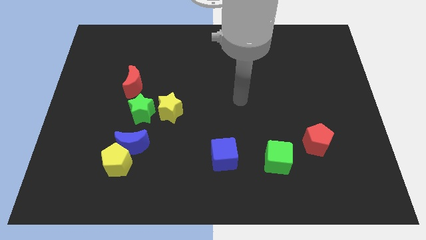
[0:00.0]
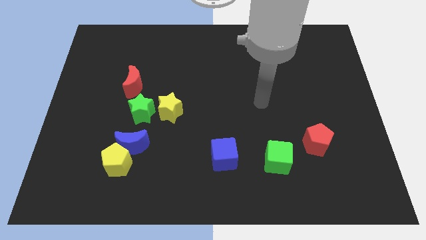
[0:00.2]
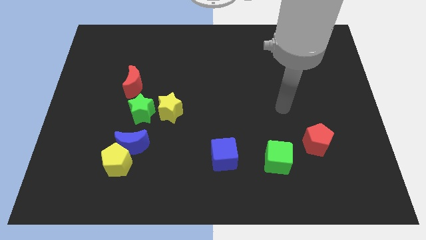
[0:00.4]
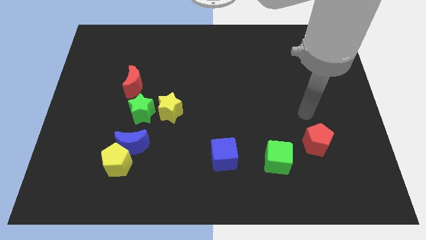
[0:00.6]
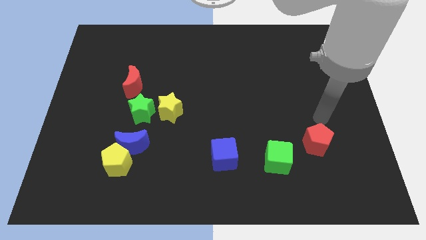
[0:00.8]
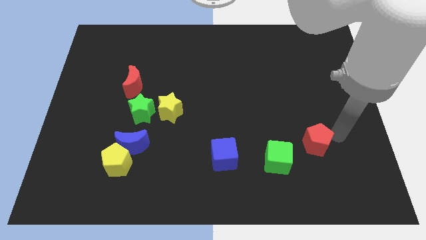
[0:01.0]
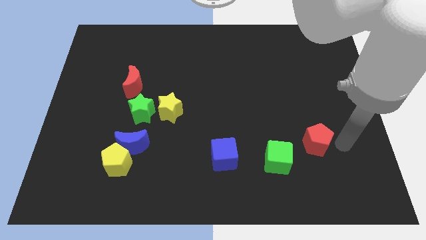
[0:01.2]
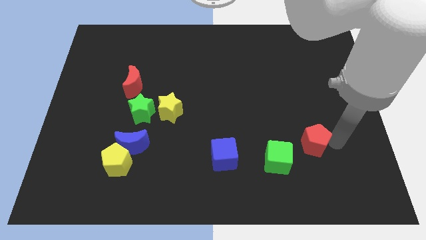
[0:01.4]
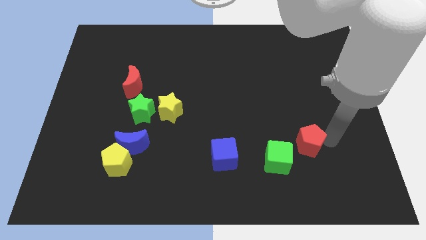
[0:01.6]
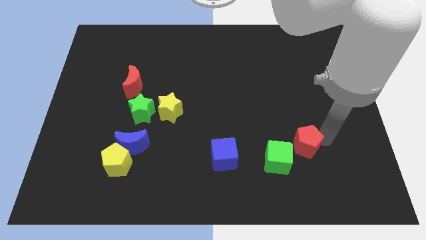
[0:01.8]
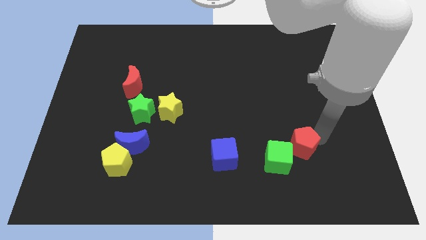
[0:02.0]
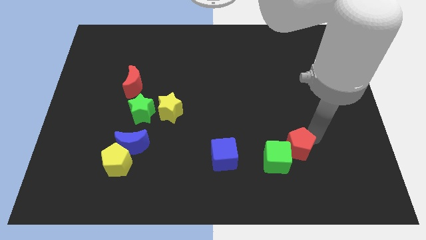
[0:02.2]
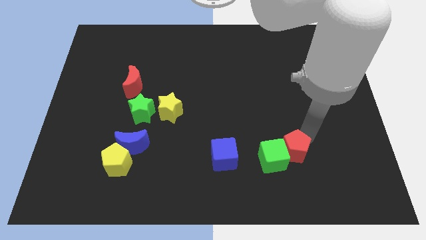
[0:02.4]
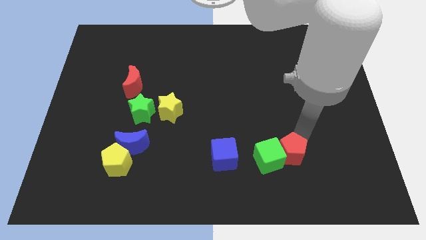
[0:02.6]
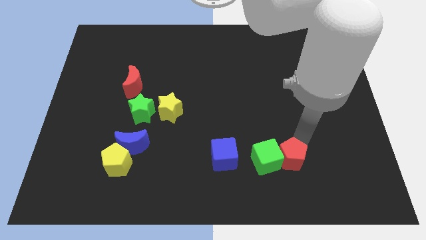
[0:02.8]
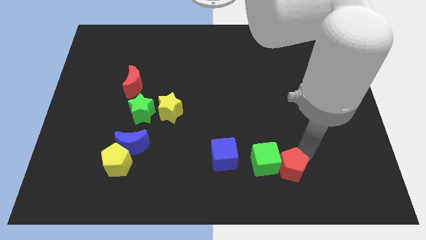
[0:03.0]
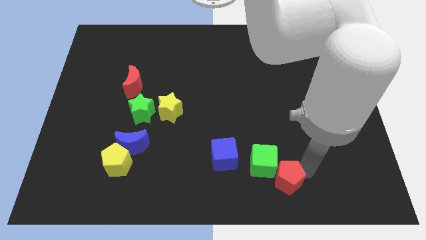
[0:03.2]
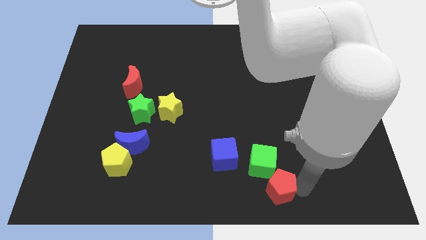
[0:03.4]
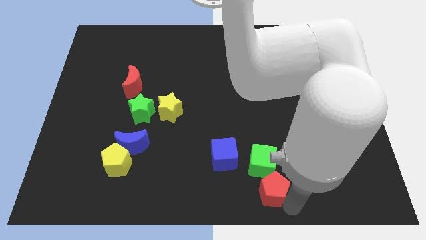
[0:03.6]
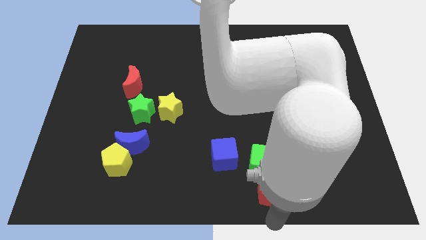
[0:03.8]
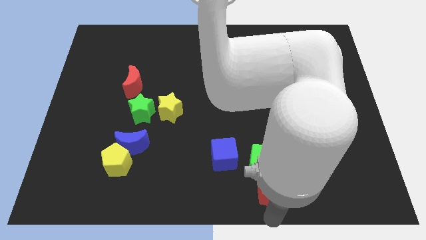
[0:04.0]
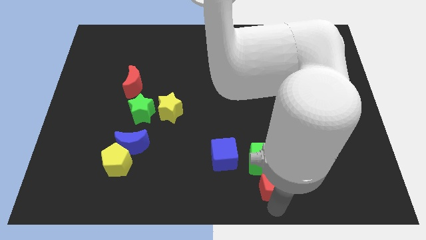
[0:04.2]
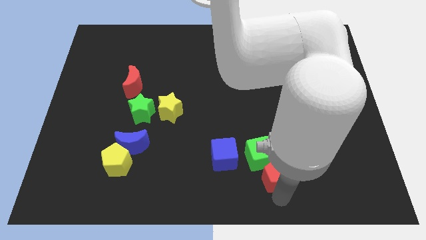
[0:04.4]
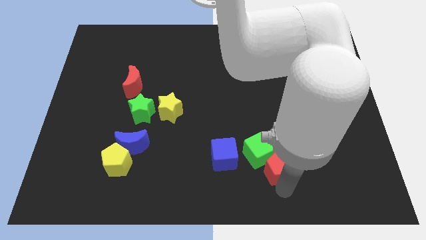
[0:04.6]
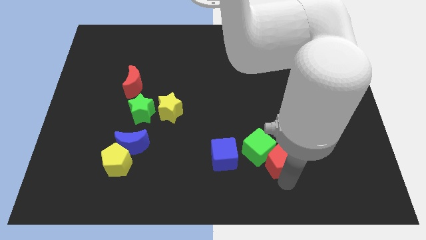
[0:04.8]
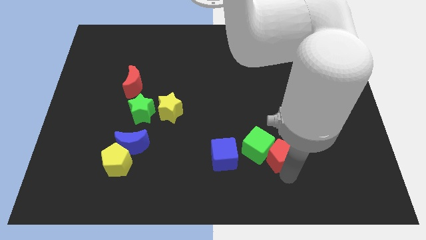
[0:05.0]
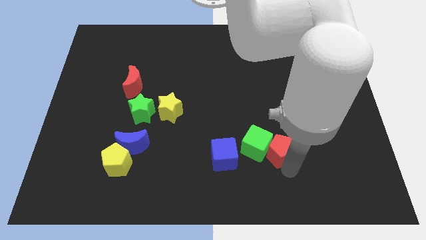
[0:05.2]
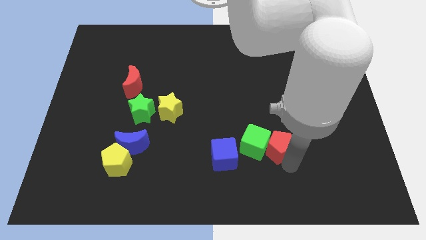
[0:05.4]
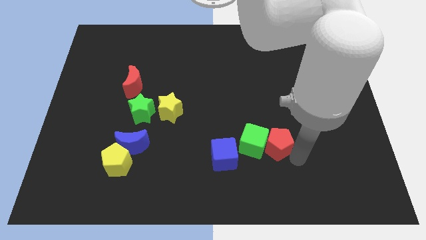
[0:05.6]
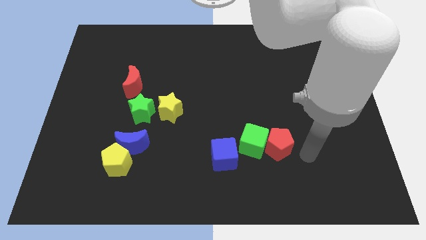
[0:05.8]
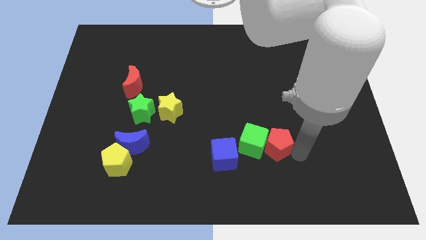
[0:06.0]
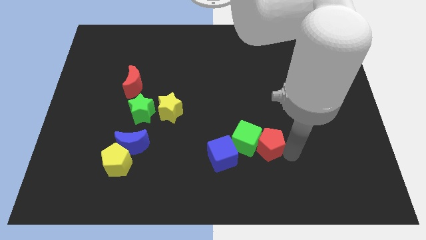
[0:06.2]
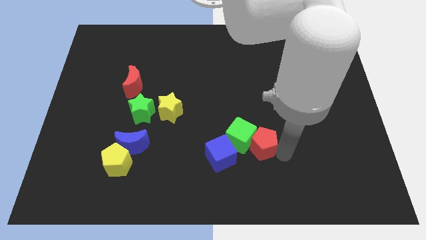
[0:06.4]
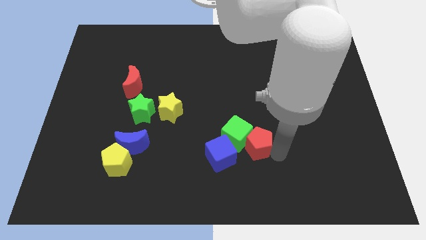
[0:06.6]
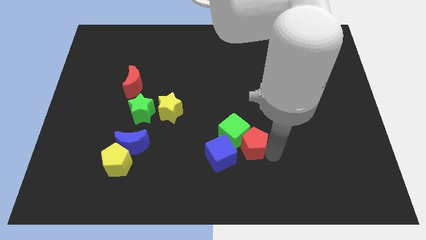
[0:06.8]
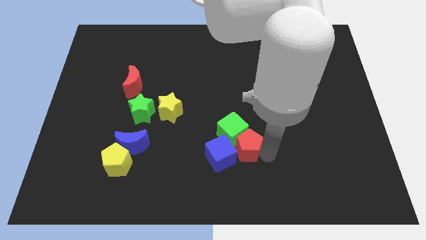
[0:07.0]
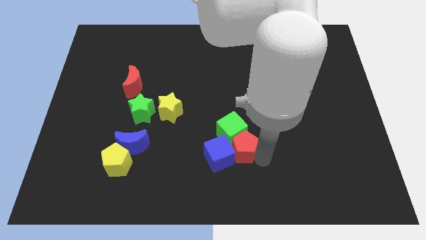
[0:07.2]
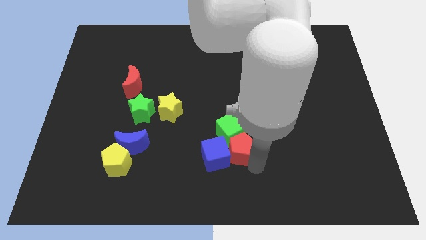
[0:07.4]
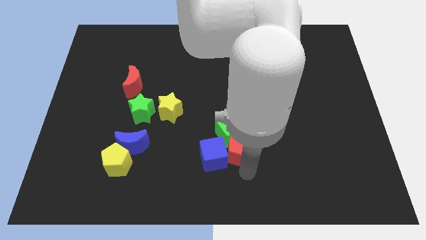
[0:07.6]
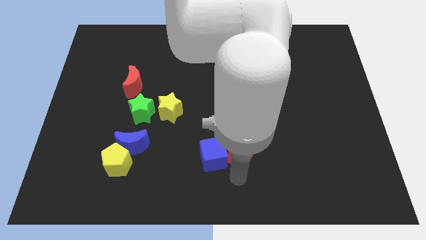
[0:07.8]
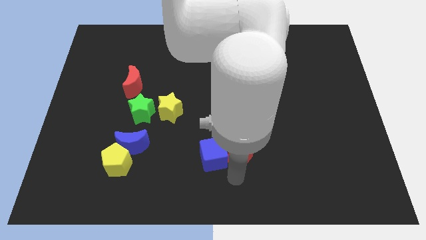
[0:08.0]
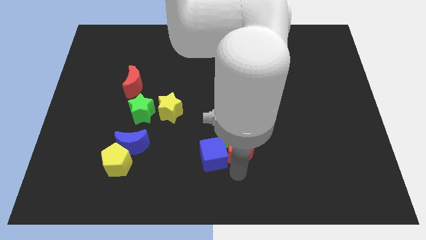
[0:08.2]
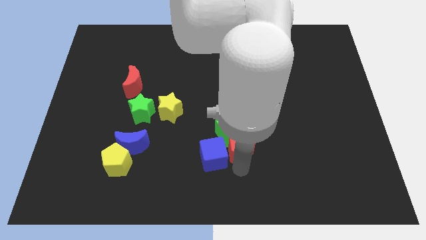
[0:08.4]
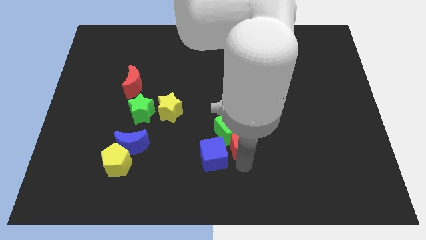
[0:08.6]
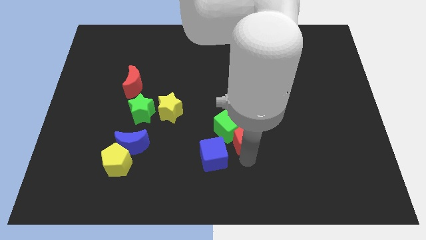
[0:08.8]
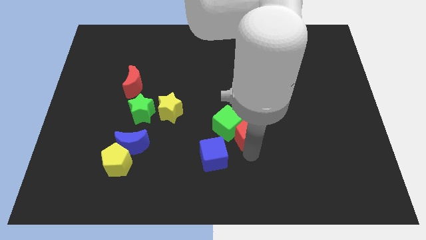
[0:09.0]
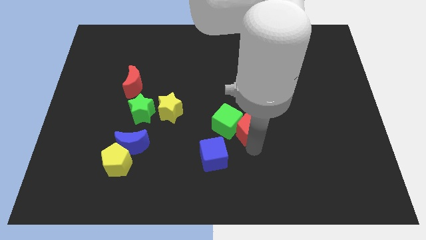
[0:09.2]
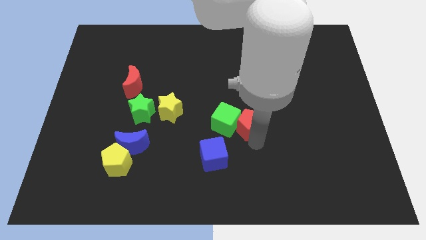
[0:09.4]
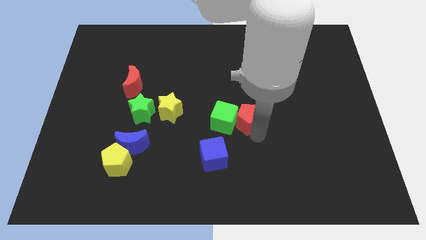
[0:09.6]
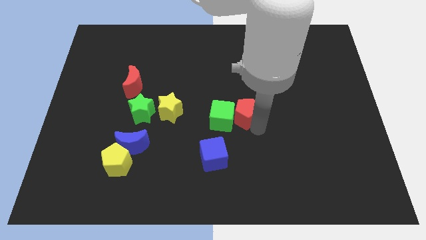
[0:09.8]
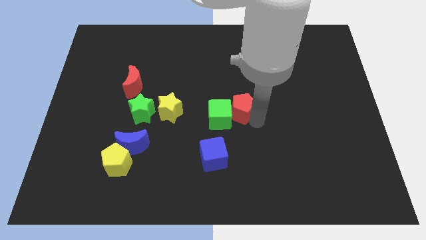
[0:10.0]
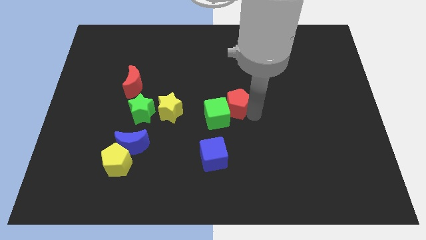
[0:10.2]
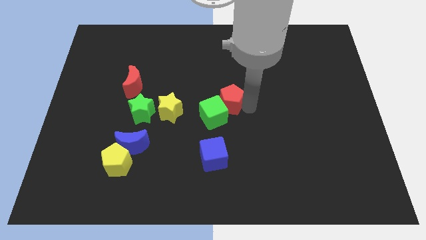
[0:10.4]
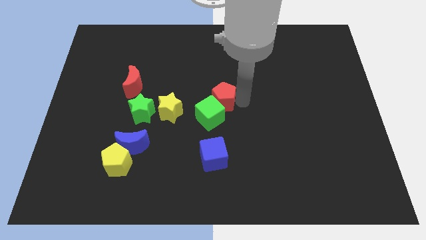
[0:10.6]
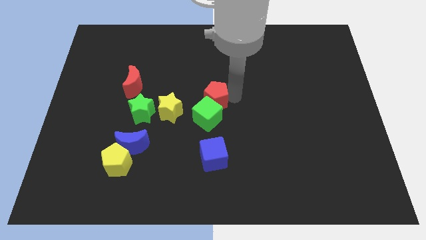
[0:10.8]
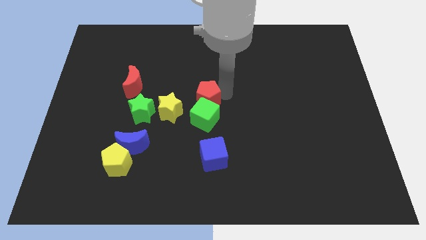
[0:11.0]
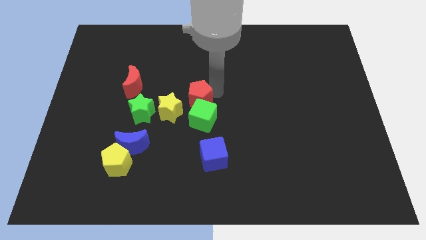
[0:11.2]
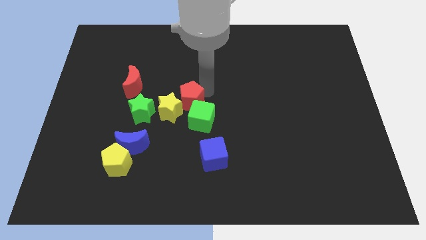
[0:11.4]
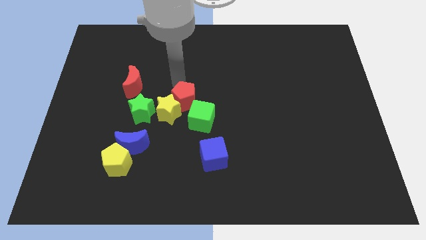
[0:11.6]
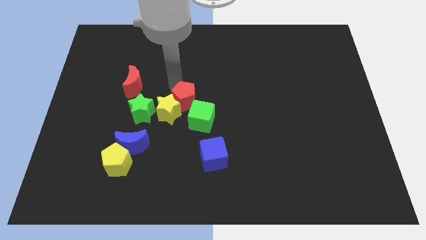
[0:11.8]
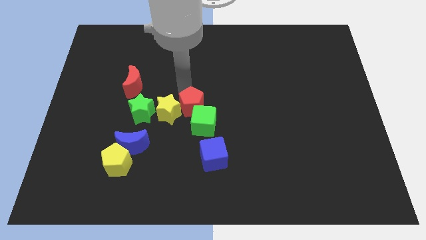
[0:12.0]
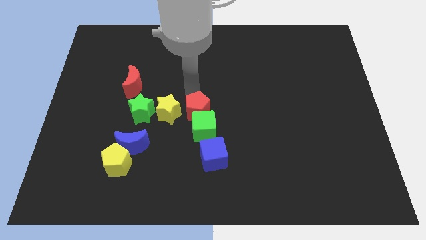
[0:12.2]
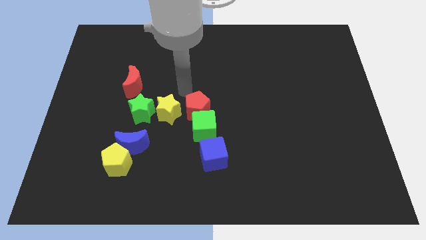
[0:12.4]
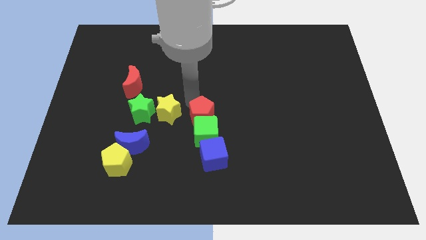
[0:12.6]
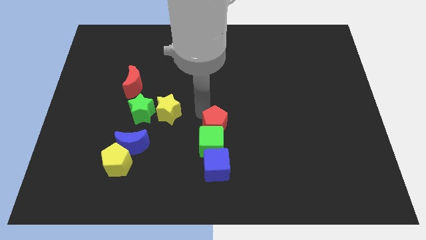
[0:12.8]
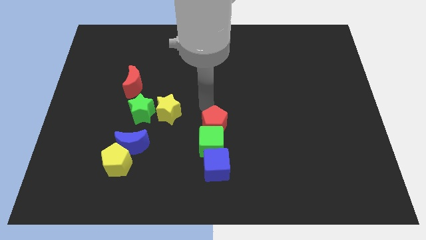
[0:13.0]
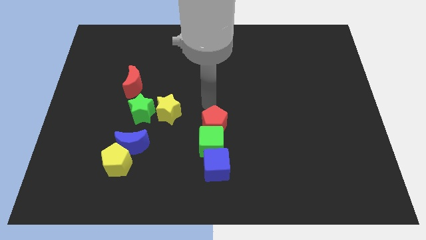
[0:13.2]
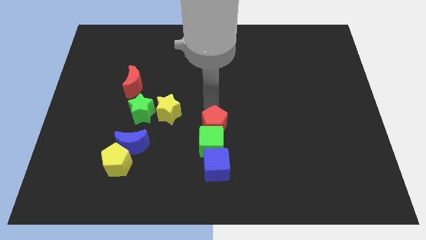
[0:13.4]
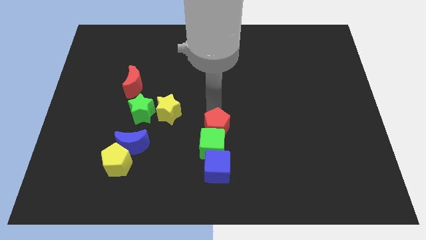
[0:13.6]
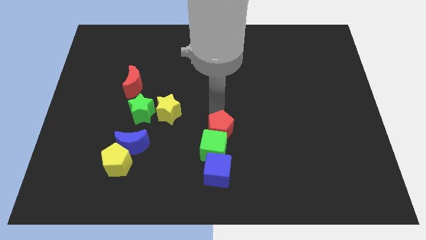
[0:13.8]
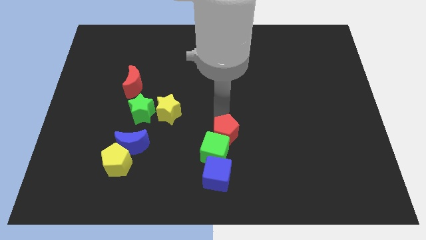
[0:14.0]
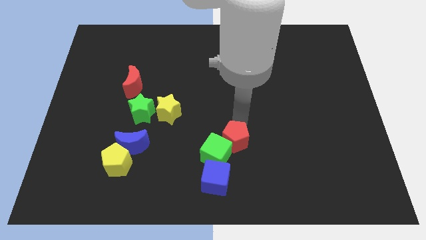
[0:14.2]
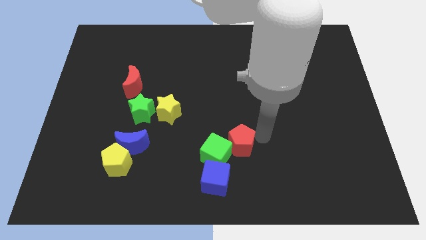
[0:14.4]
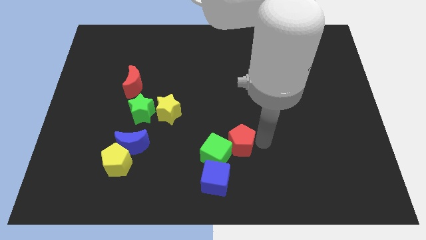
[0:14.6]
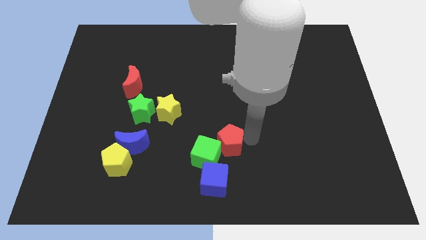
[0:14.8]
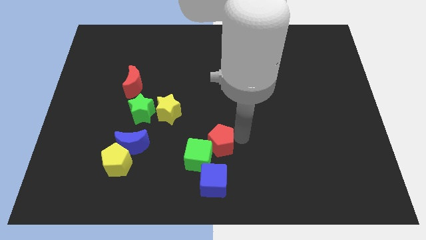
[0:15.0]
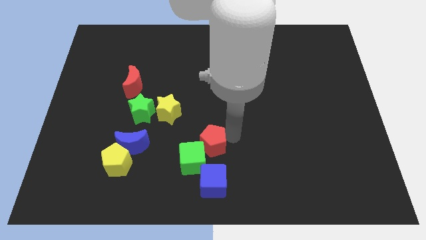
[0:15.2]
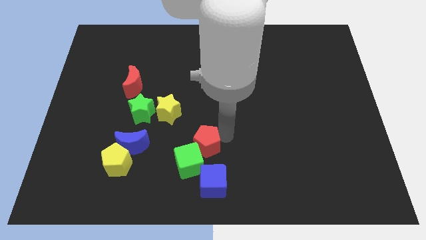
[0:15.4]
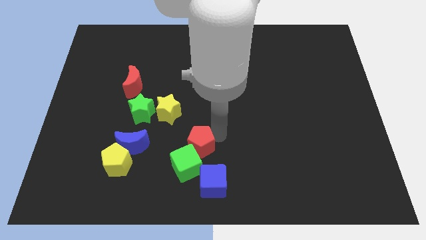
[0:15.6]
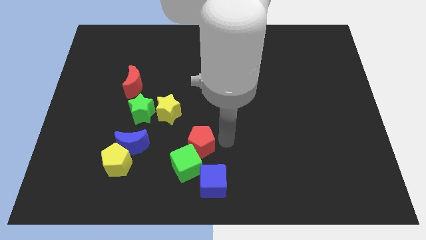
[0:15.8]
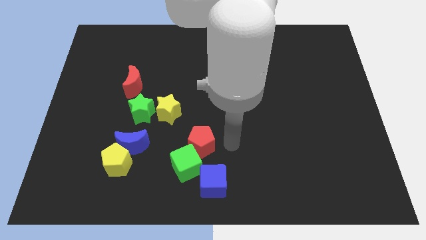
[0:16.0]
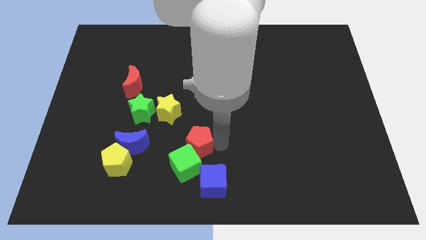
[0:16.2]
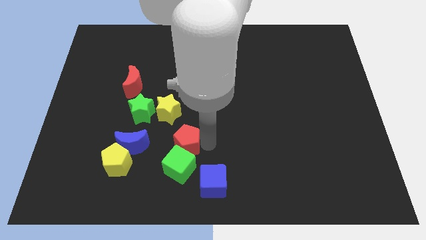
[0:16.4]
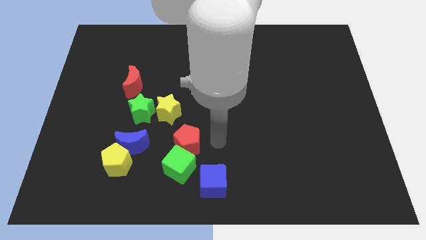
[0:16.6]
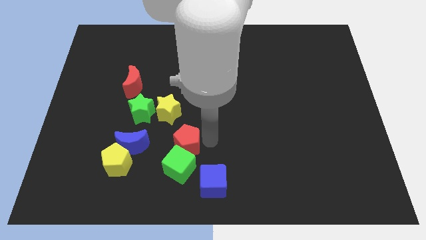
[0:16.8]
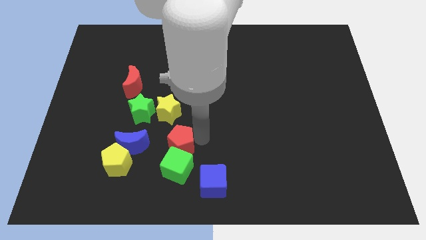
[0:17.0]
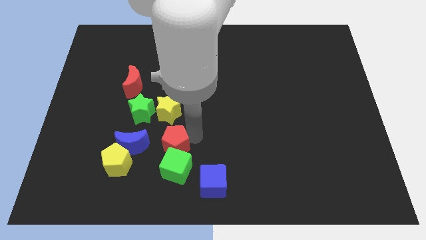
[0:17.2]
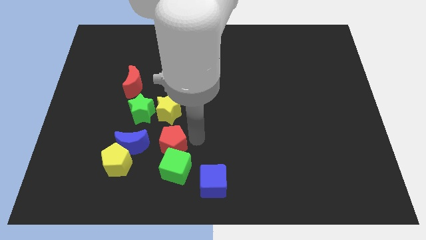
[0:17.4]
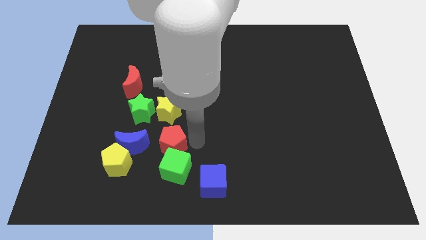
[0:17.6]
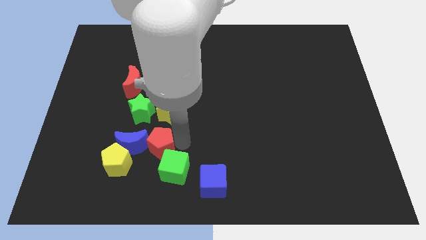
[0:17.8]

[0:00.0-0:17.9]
slide the red pentagon next to the blue moon
